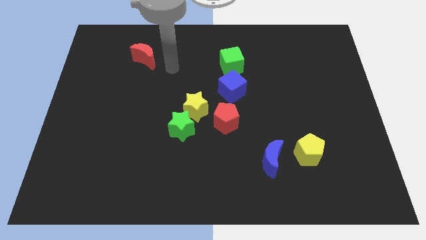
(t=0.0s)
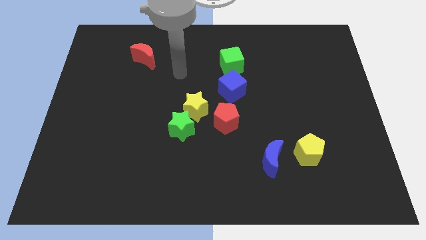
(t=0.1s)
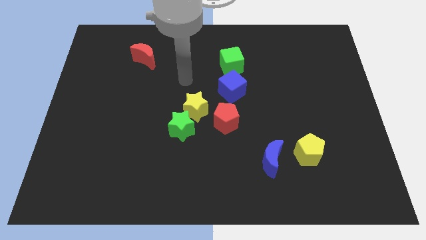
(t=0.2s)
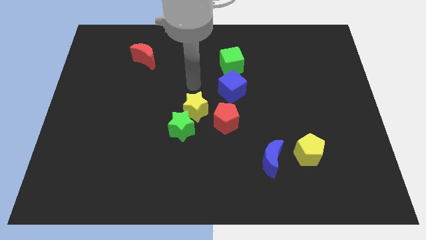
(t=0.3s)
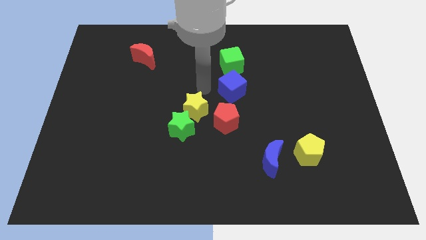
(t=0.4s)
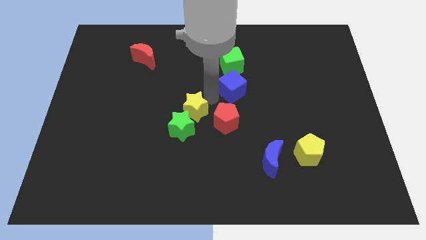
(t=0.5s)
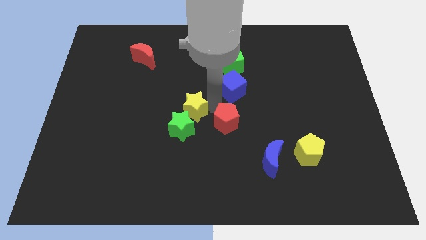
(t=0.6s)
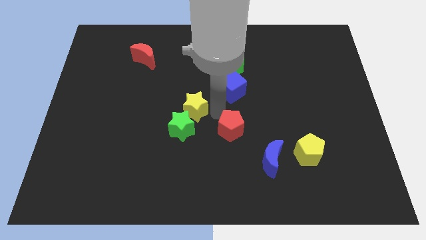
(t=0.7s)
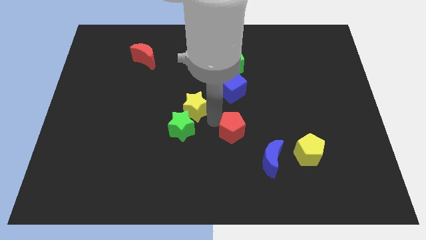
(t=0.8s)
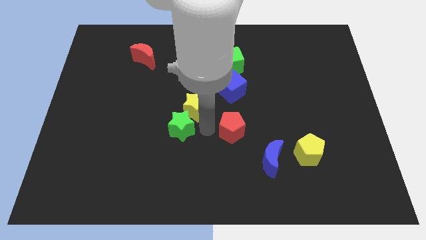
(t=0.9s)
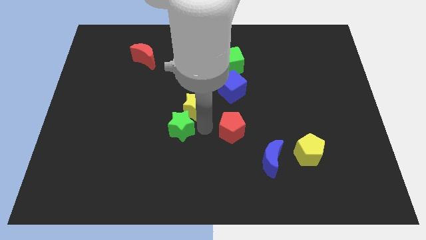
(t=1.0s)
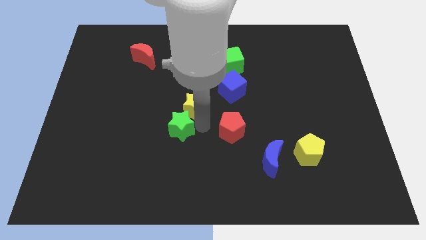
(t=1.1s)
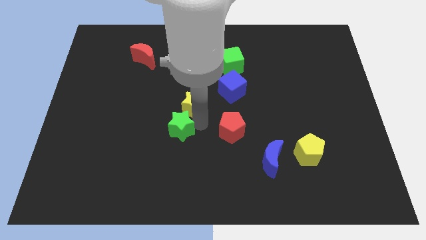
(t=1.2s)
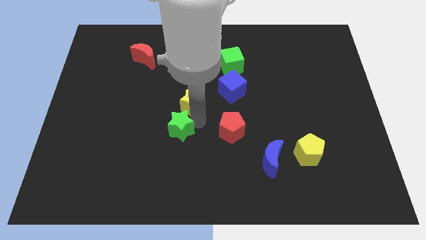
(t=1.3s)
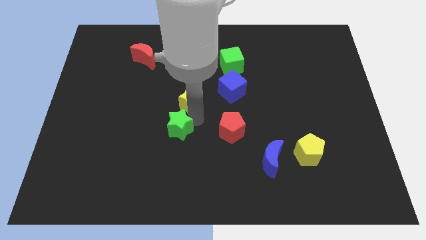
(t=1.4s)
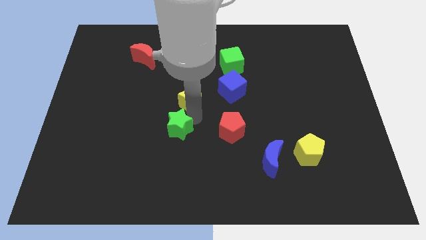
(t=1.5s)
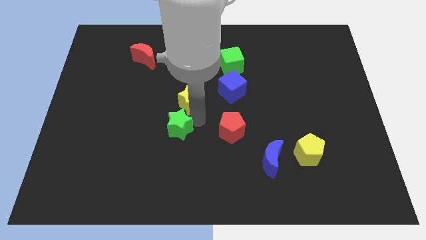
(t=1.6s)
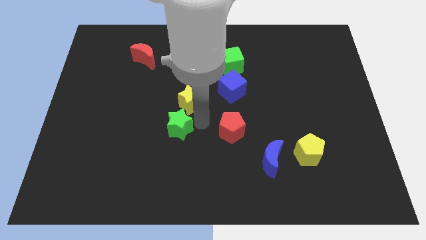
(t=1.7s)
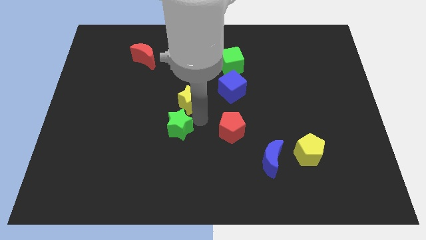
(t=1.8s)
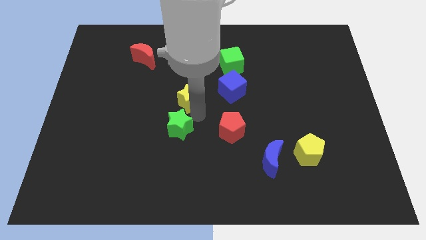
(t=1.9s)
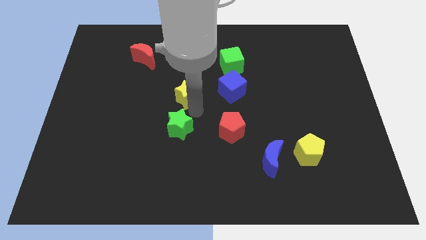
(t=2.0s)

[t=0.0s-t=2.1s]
pull the yellow star apart from the green star and red pentagon

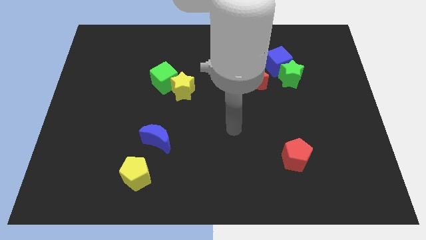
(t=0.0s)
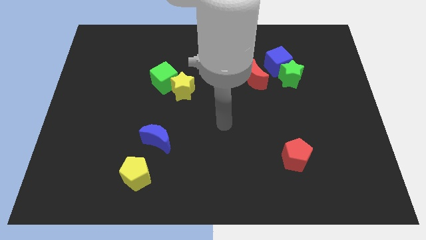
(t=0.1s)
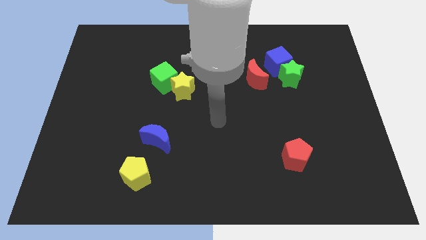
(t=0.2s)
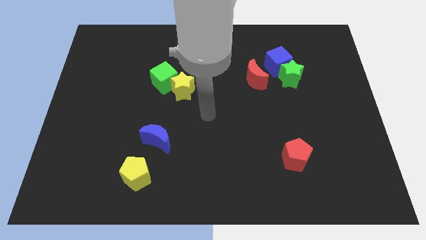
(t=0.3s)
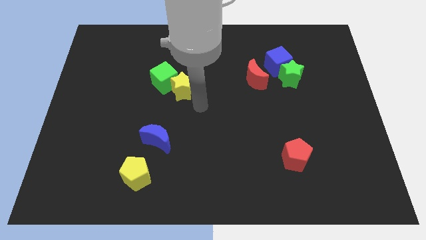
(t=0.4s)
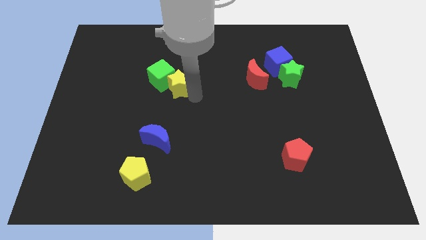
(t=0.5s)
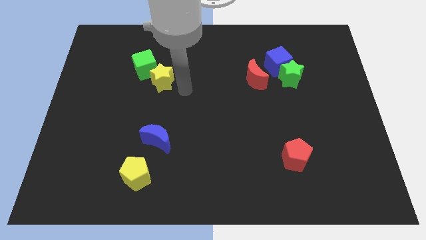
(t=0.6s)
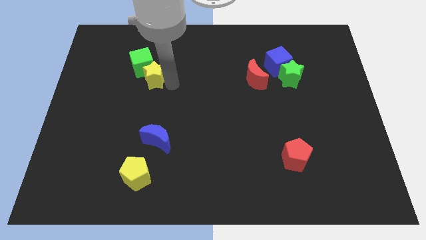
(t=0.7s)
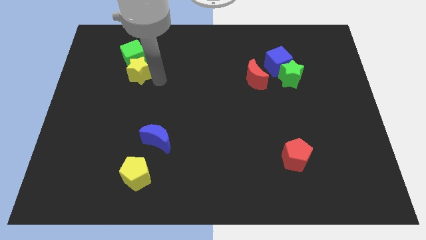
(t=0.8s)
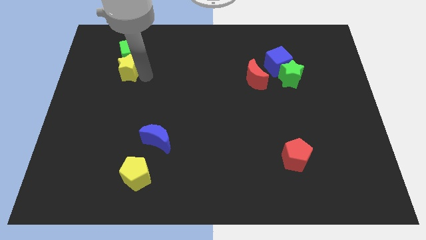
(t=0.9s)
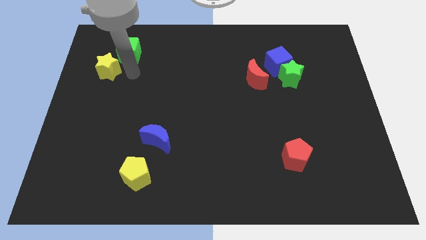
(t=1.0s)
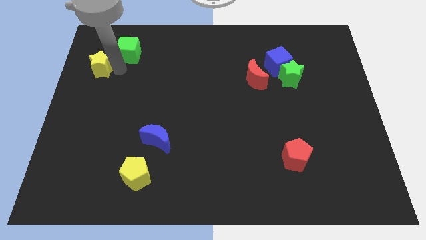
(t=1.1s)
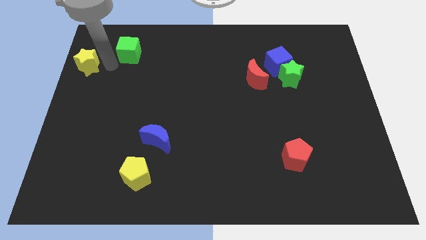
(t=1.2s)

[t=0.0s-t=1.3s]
pull the green cube apart from the yellow star

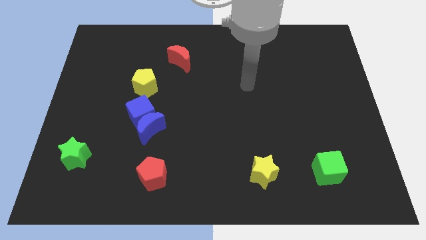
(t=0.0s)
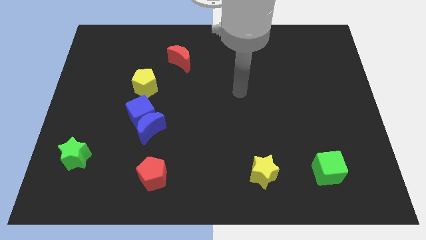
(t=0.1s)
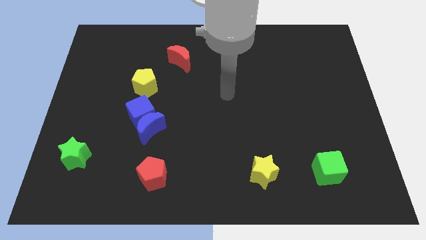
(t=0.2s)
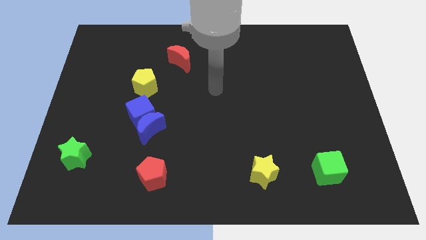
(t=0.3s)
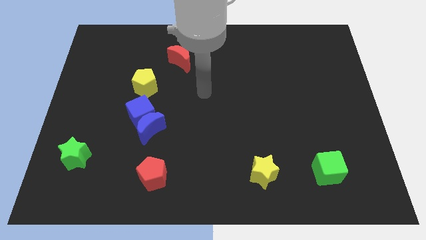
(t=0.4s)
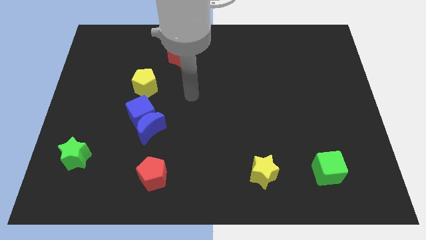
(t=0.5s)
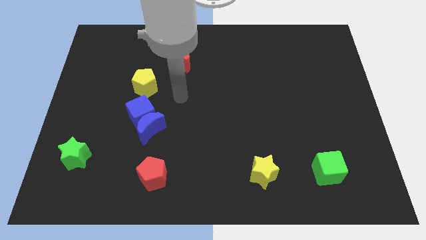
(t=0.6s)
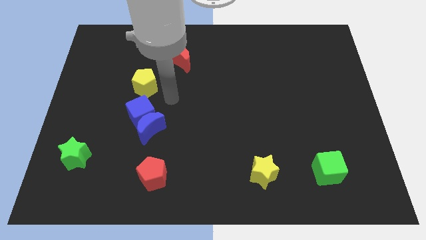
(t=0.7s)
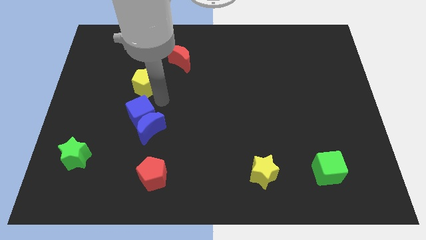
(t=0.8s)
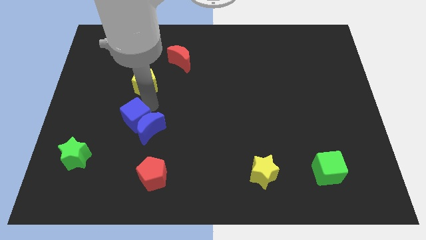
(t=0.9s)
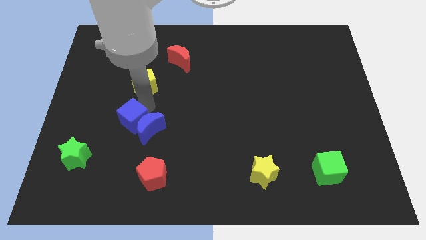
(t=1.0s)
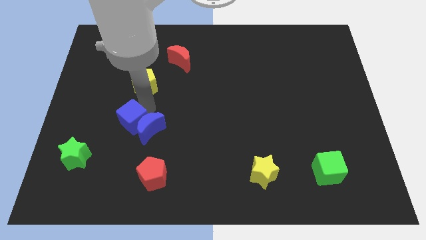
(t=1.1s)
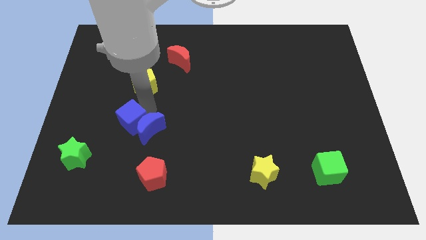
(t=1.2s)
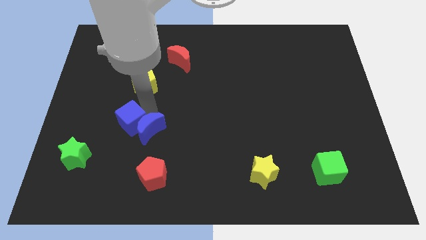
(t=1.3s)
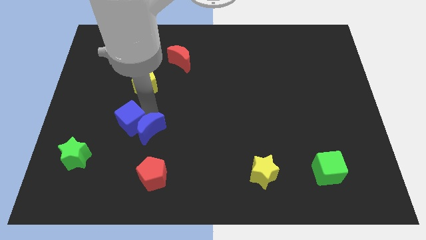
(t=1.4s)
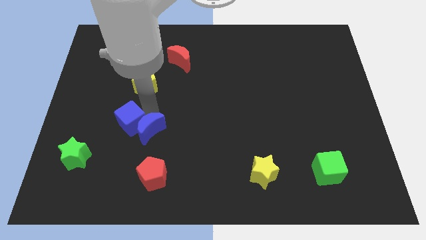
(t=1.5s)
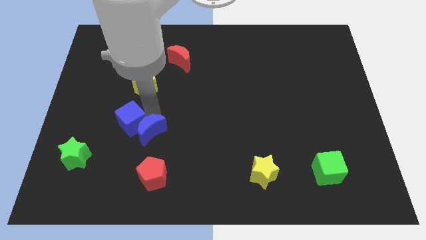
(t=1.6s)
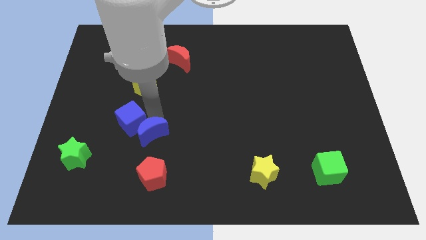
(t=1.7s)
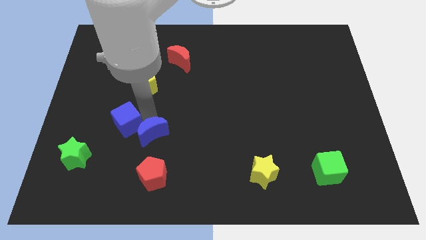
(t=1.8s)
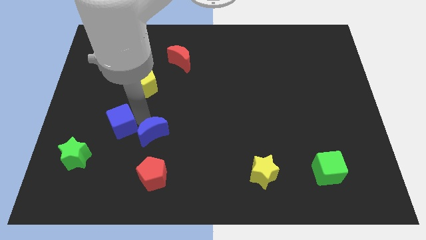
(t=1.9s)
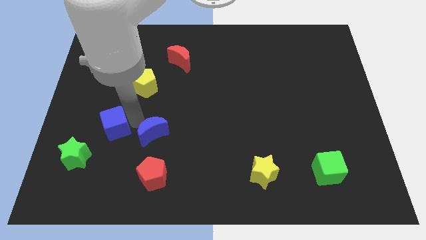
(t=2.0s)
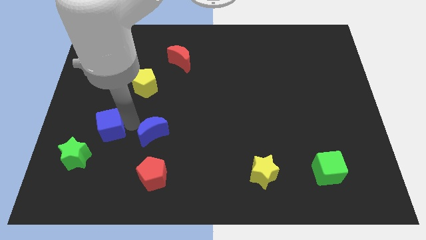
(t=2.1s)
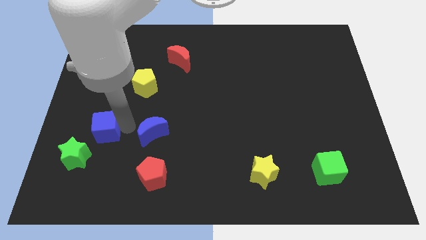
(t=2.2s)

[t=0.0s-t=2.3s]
move the blue moon away from the blue cube

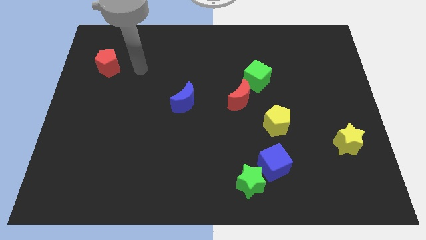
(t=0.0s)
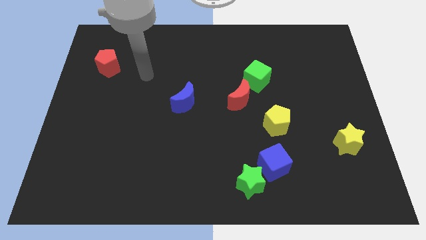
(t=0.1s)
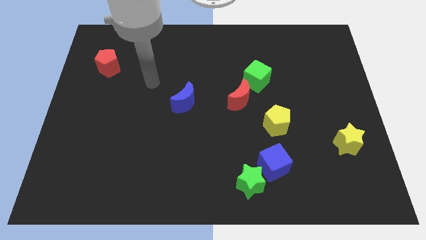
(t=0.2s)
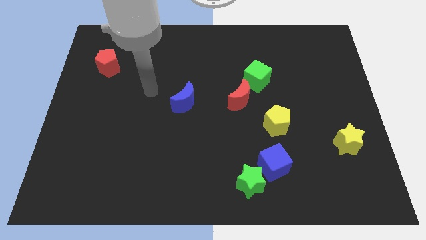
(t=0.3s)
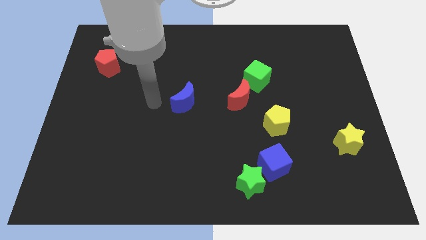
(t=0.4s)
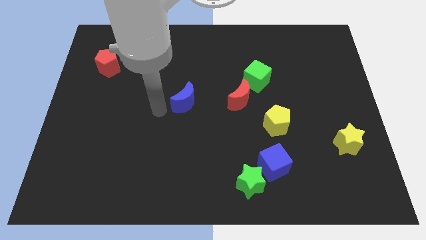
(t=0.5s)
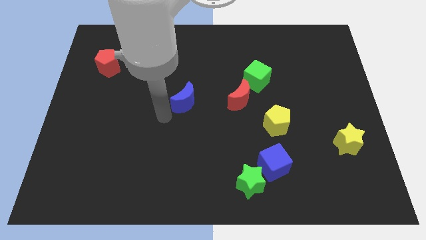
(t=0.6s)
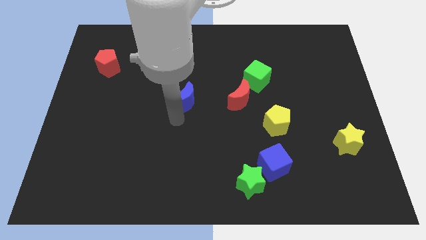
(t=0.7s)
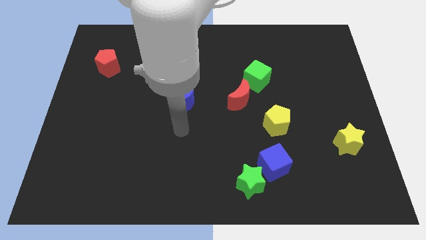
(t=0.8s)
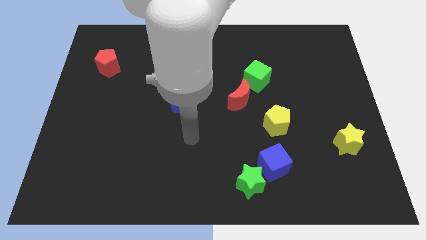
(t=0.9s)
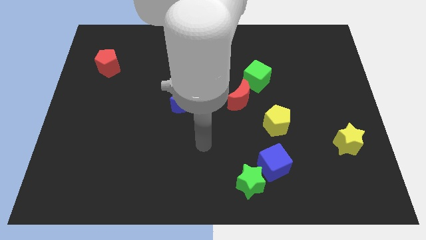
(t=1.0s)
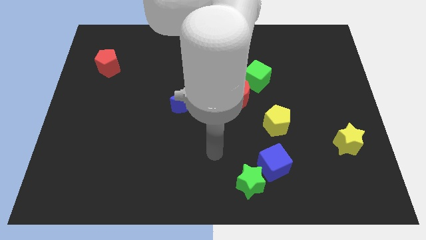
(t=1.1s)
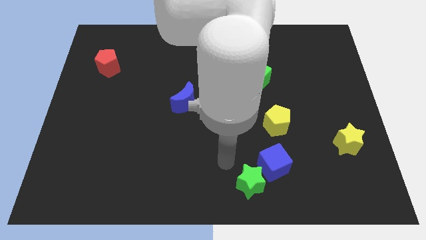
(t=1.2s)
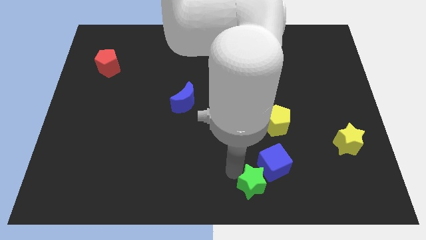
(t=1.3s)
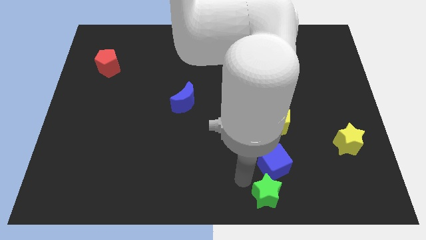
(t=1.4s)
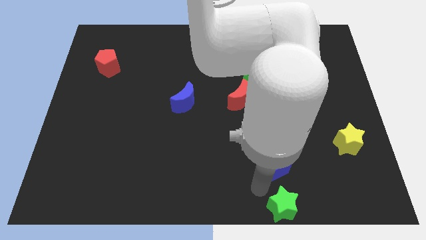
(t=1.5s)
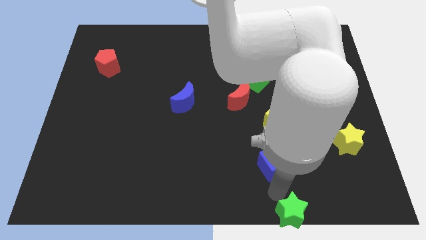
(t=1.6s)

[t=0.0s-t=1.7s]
separate the blue cube from the green star

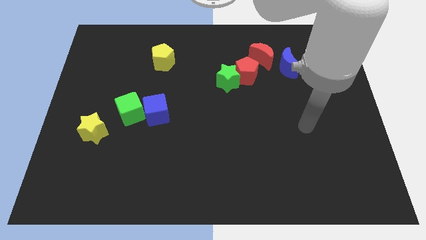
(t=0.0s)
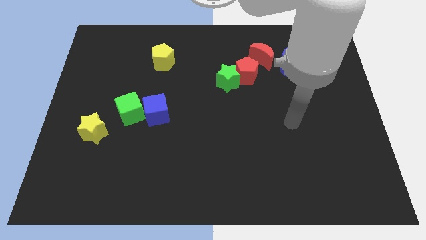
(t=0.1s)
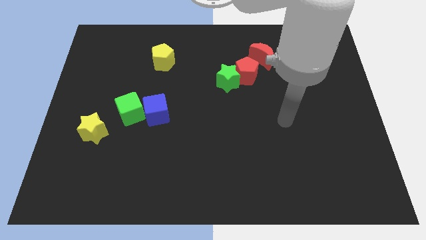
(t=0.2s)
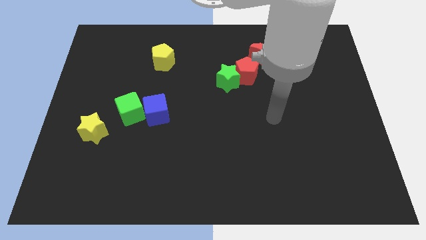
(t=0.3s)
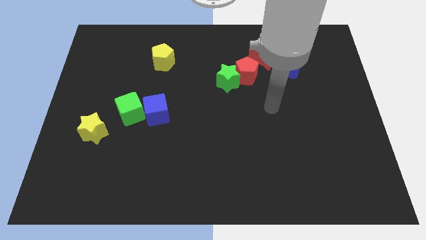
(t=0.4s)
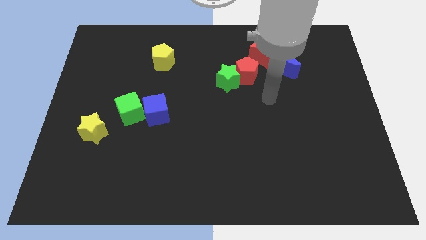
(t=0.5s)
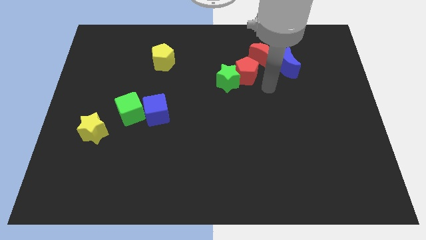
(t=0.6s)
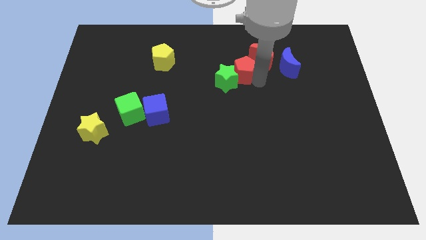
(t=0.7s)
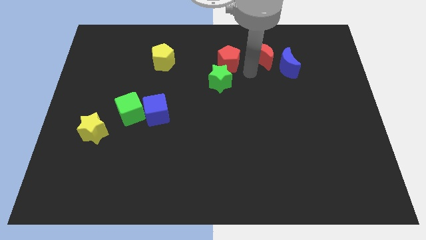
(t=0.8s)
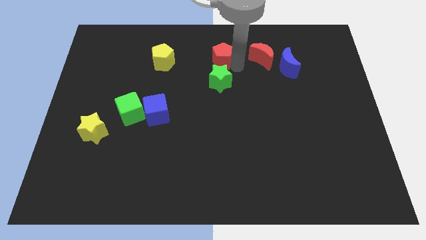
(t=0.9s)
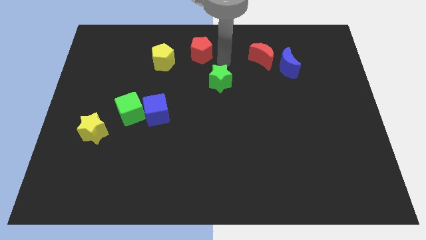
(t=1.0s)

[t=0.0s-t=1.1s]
separate the green star from the red pentagon

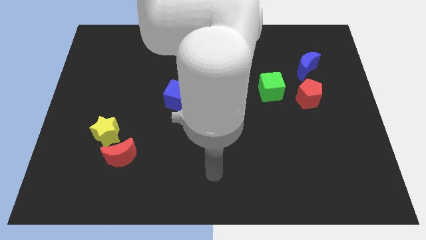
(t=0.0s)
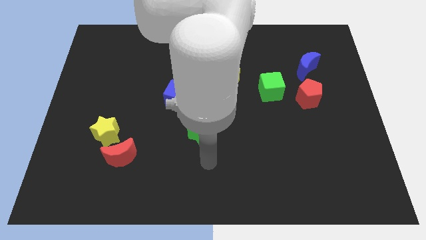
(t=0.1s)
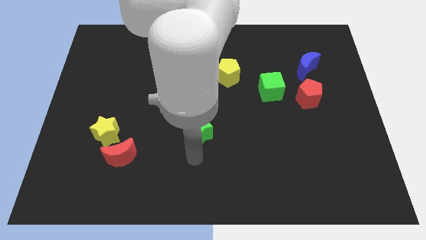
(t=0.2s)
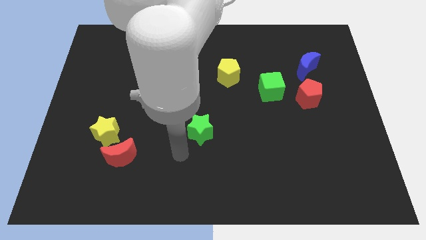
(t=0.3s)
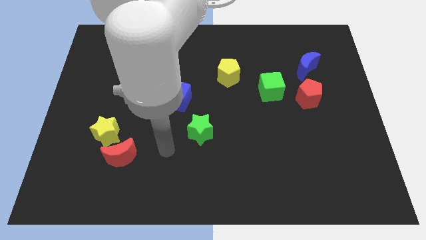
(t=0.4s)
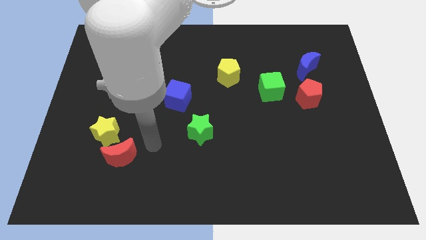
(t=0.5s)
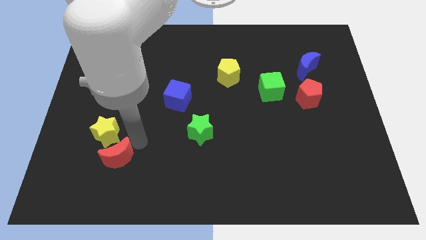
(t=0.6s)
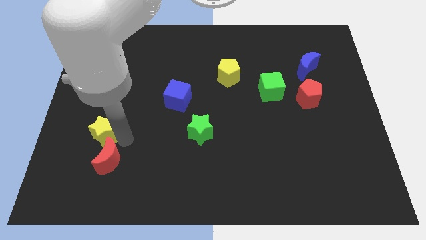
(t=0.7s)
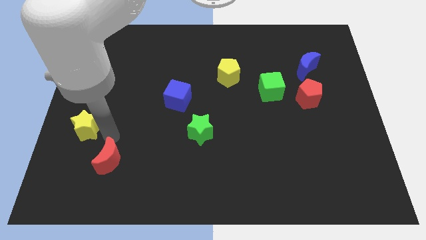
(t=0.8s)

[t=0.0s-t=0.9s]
pull the red moon apart from the yellow star
